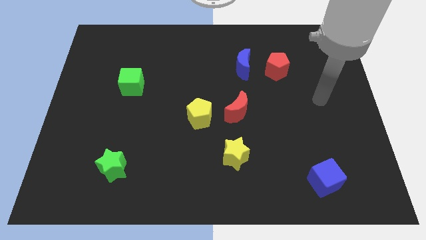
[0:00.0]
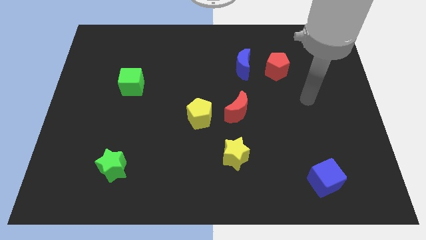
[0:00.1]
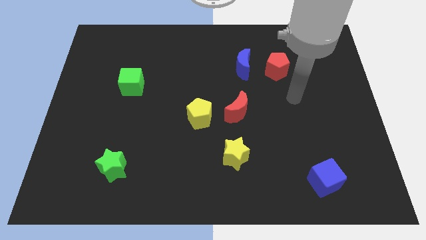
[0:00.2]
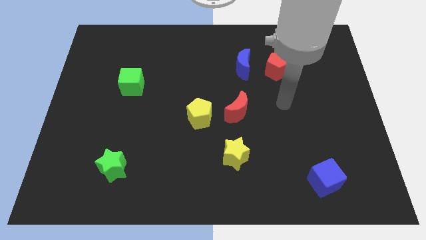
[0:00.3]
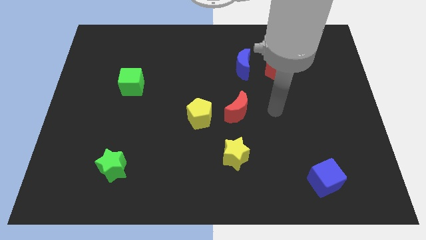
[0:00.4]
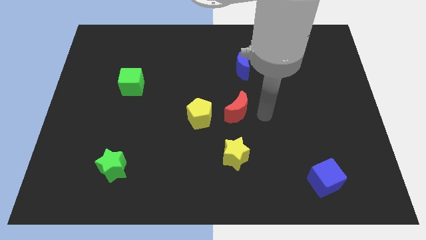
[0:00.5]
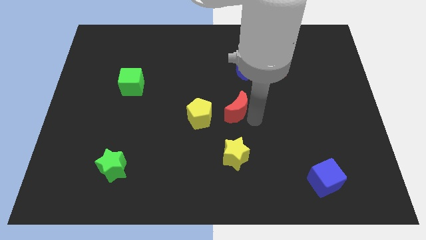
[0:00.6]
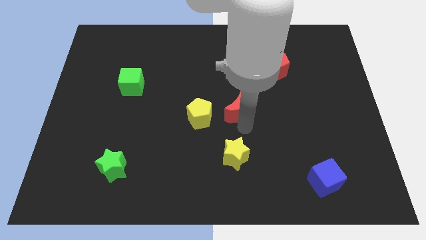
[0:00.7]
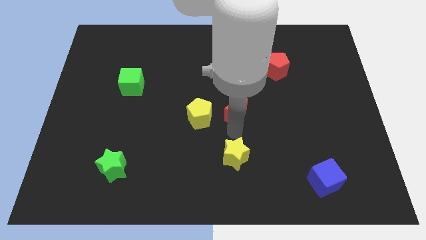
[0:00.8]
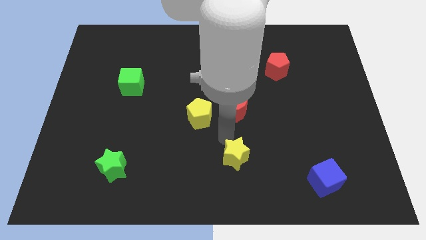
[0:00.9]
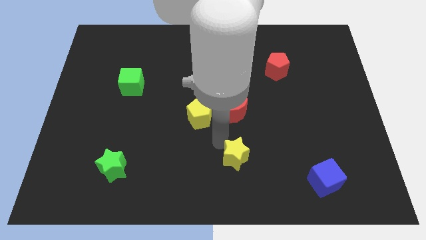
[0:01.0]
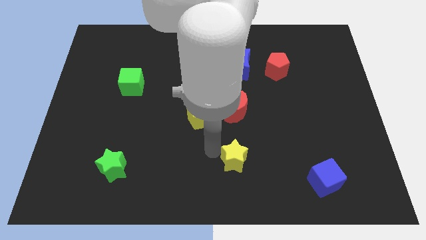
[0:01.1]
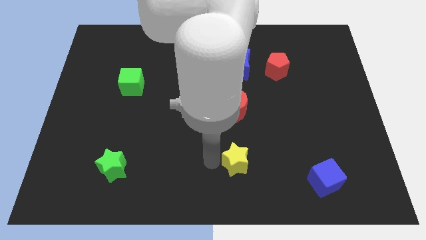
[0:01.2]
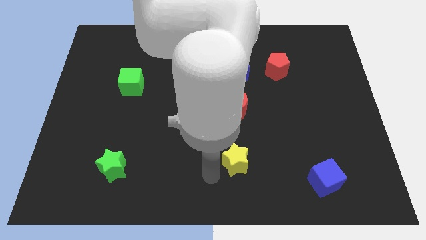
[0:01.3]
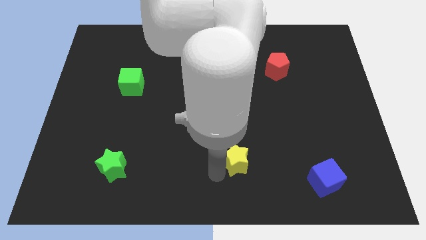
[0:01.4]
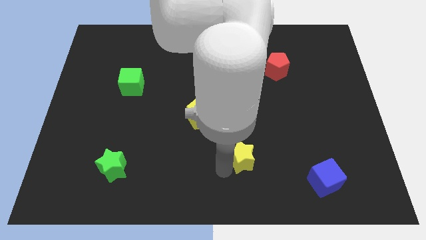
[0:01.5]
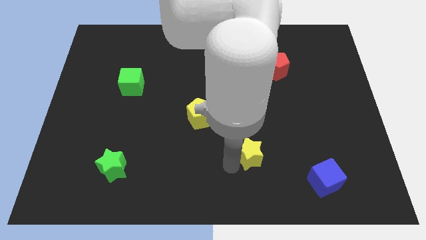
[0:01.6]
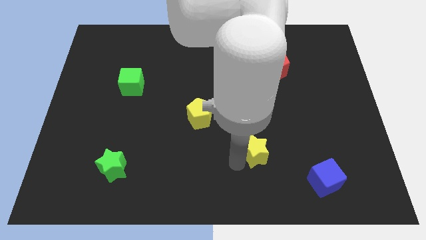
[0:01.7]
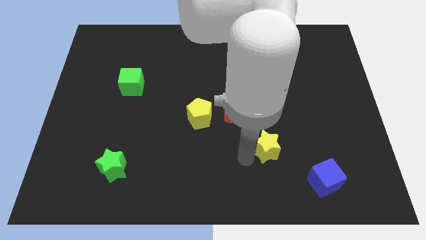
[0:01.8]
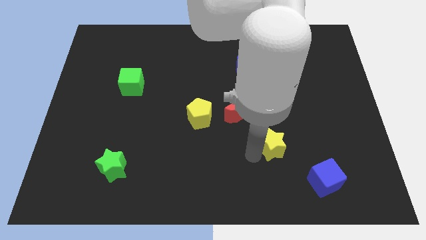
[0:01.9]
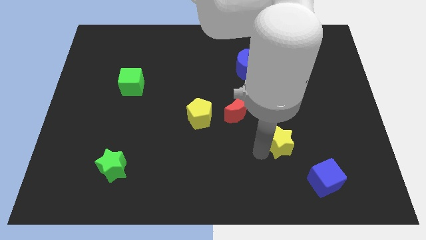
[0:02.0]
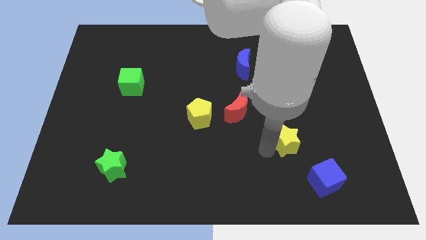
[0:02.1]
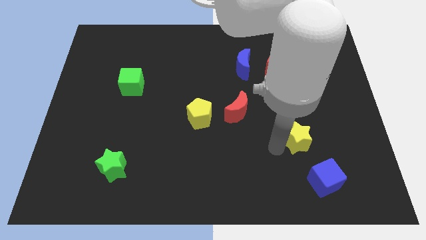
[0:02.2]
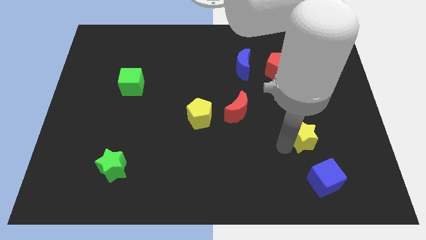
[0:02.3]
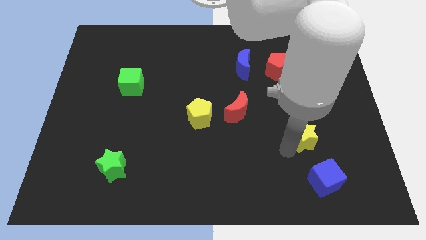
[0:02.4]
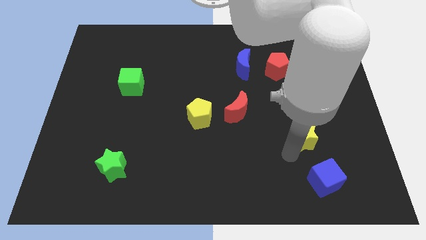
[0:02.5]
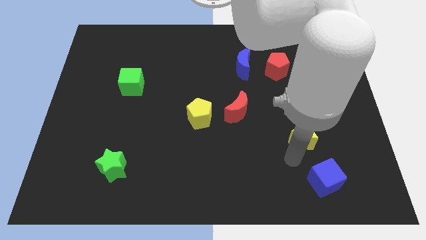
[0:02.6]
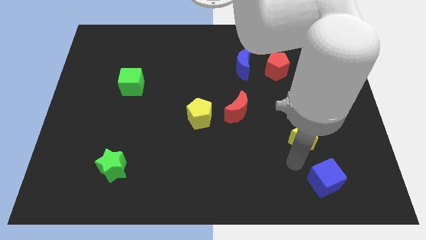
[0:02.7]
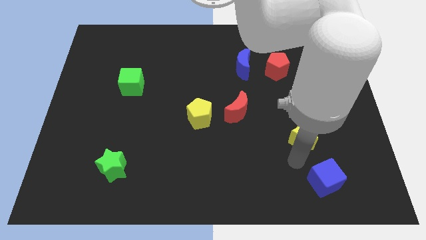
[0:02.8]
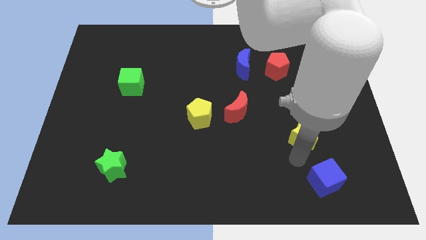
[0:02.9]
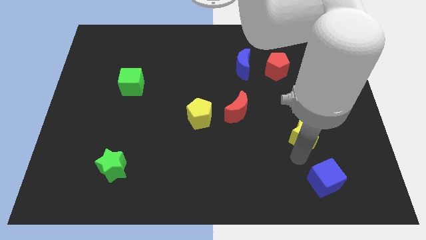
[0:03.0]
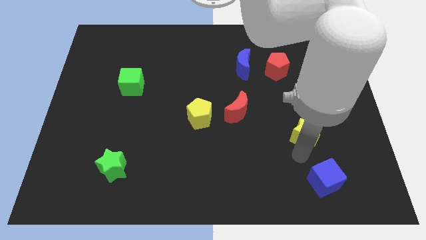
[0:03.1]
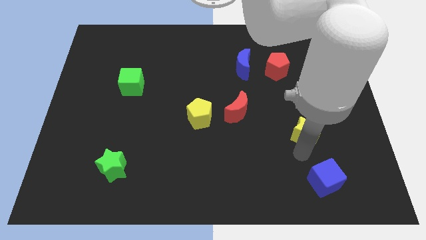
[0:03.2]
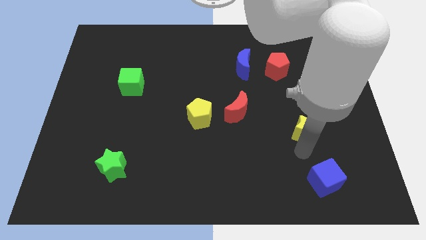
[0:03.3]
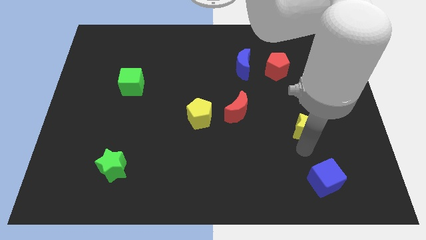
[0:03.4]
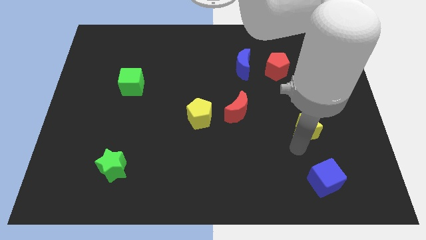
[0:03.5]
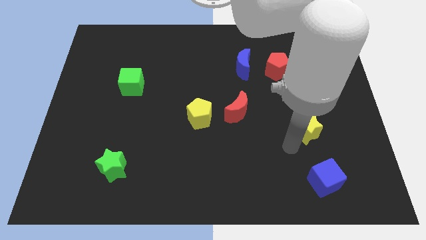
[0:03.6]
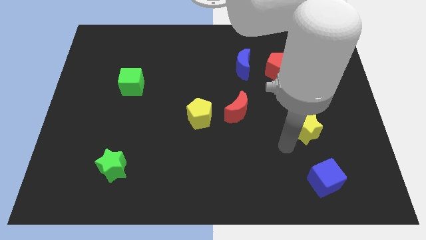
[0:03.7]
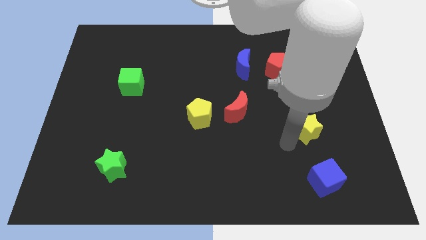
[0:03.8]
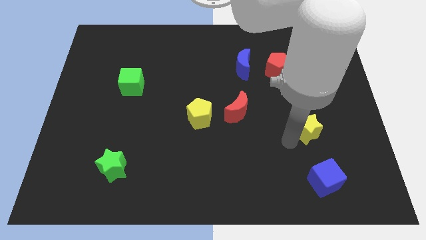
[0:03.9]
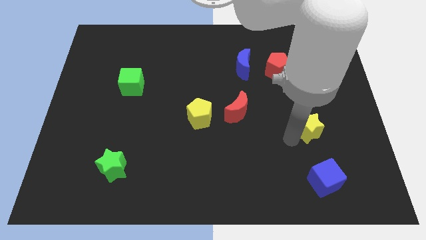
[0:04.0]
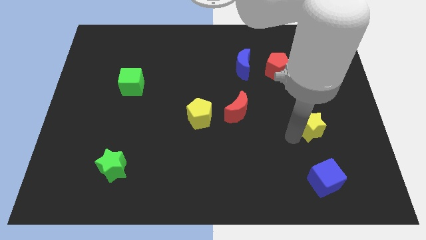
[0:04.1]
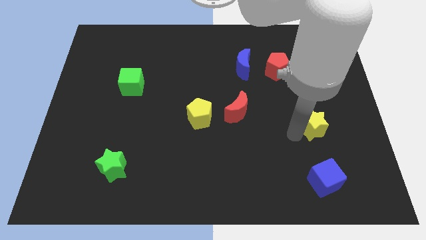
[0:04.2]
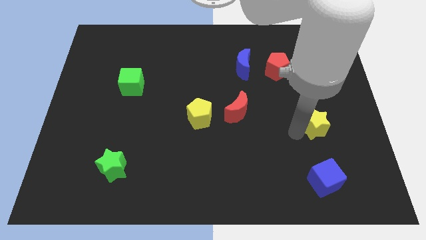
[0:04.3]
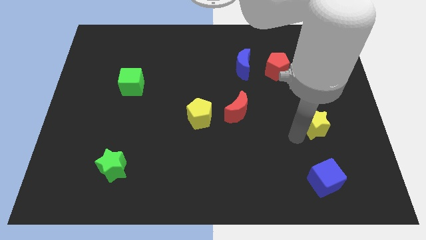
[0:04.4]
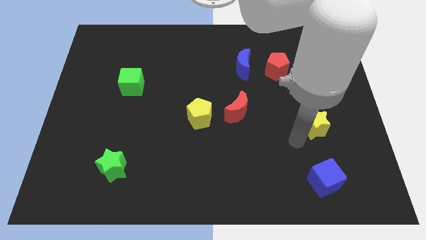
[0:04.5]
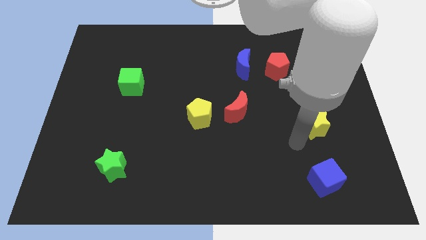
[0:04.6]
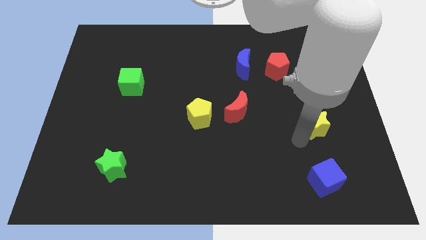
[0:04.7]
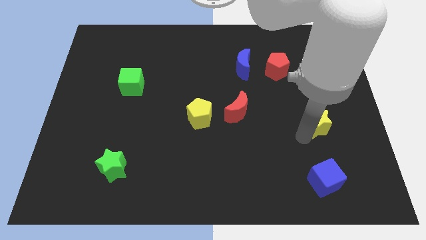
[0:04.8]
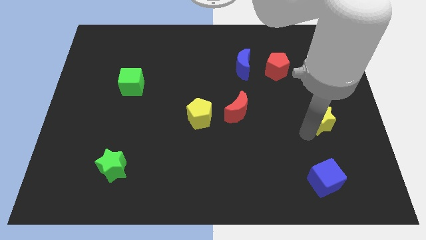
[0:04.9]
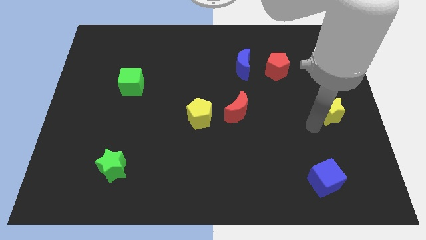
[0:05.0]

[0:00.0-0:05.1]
push the yellow star to the center right

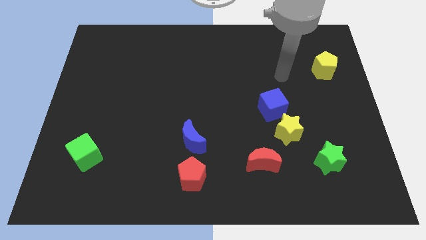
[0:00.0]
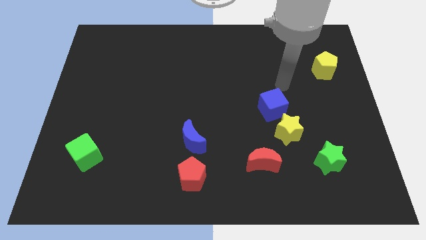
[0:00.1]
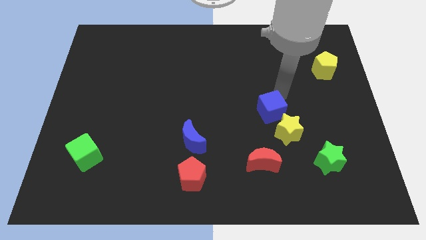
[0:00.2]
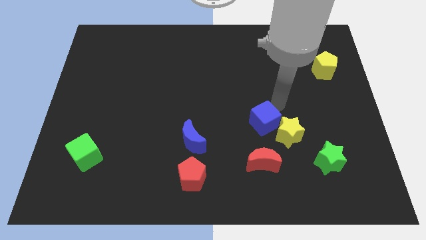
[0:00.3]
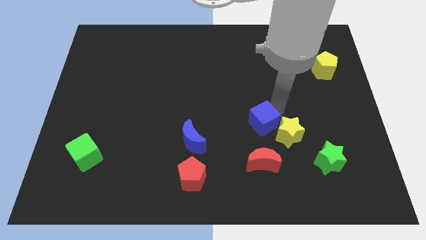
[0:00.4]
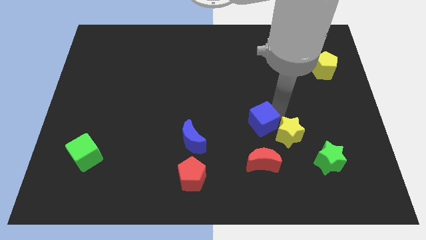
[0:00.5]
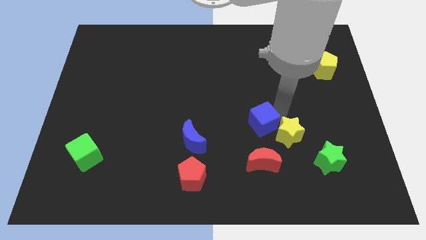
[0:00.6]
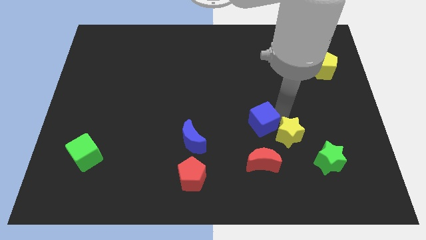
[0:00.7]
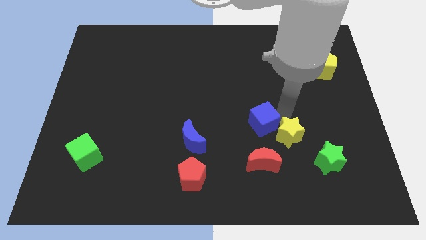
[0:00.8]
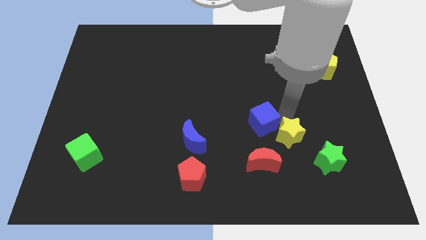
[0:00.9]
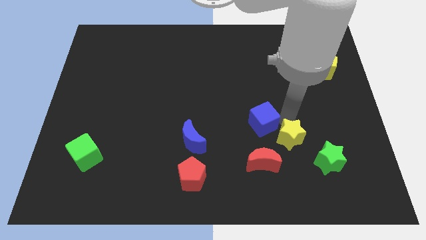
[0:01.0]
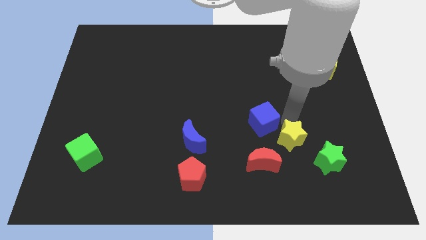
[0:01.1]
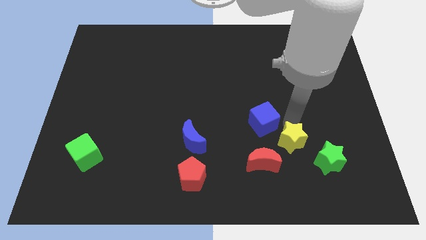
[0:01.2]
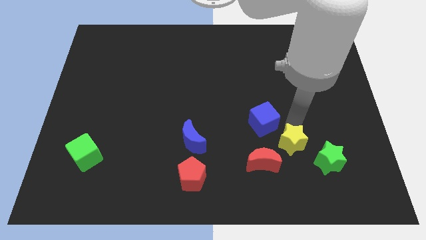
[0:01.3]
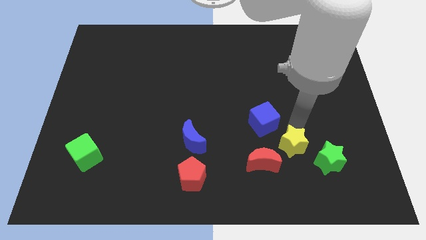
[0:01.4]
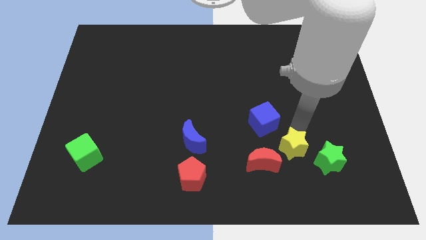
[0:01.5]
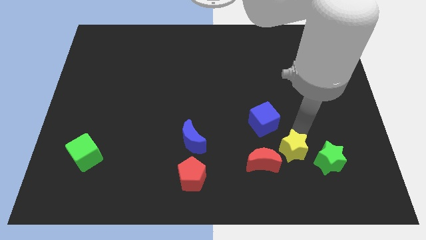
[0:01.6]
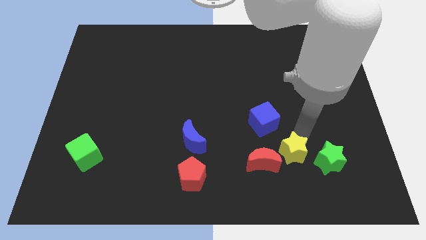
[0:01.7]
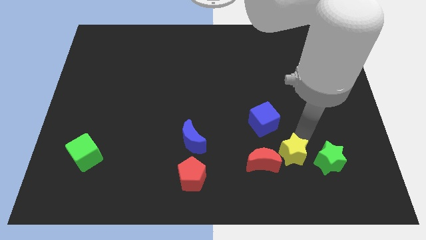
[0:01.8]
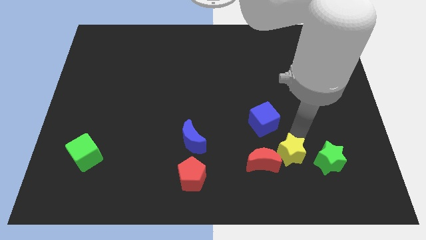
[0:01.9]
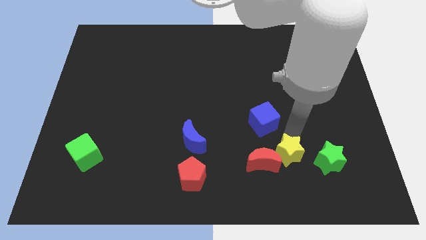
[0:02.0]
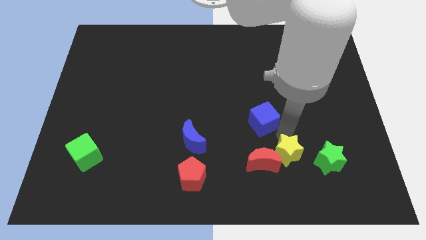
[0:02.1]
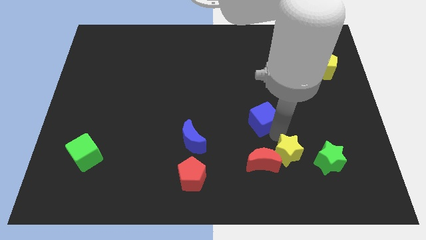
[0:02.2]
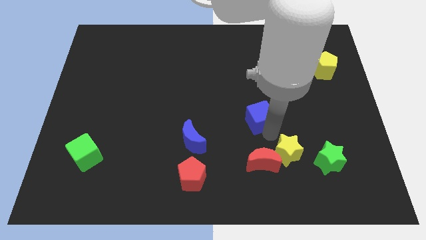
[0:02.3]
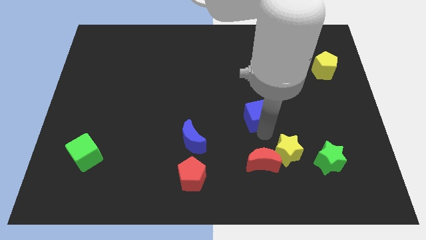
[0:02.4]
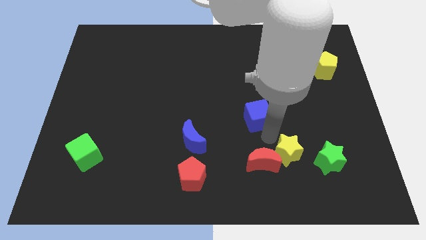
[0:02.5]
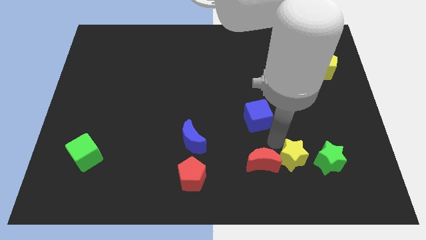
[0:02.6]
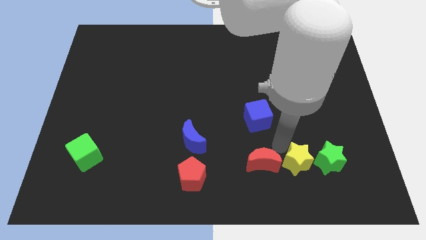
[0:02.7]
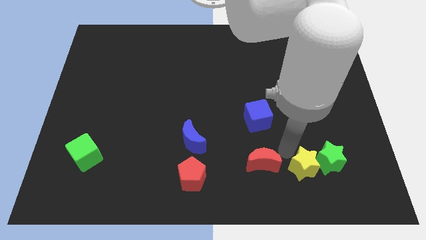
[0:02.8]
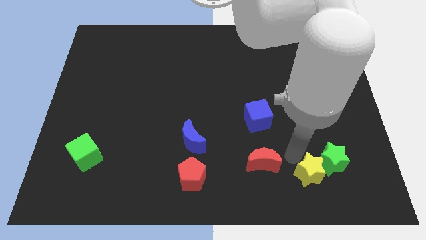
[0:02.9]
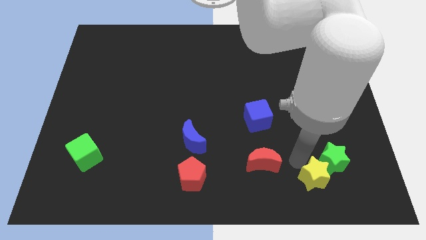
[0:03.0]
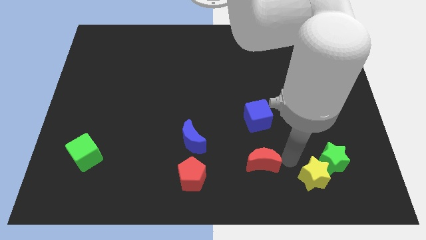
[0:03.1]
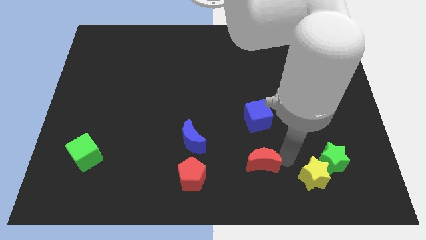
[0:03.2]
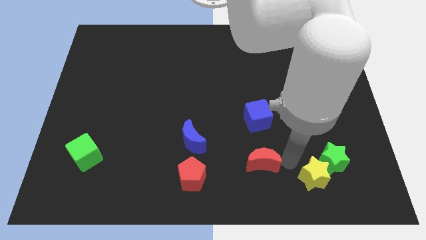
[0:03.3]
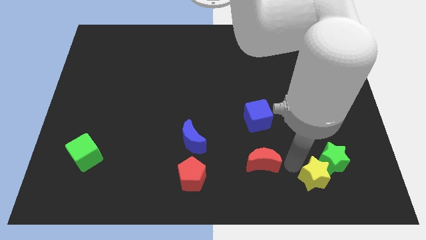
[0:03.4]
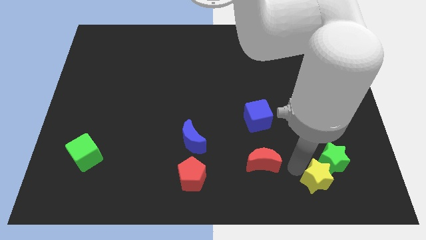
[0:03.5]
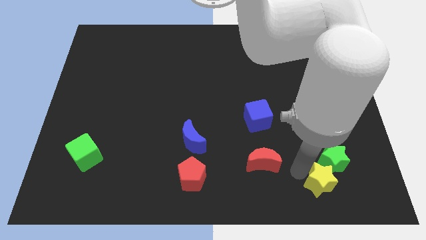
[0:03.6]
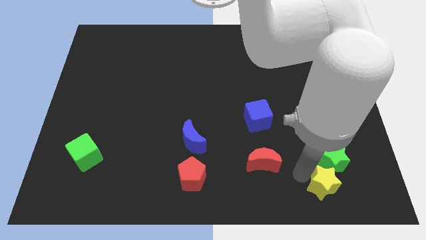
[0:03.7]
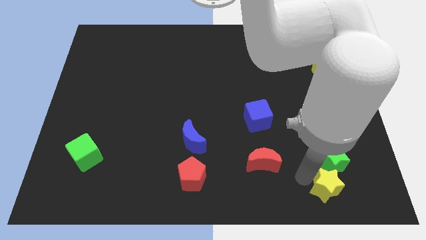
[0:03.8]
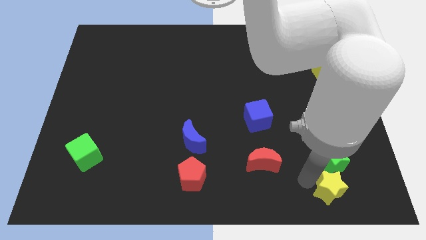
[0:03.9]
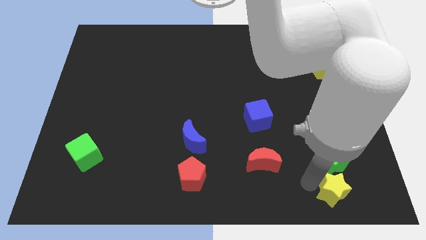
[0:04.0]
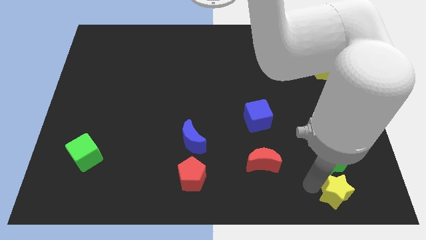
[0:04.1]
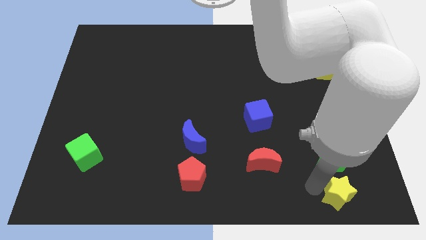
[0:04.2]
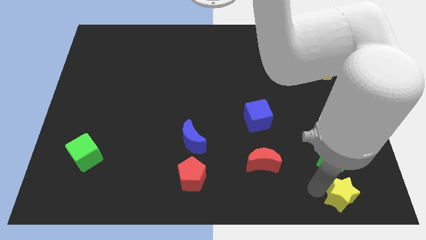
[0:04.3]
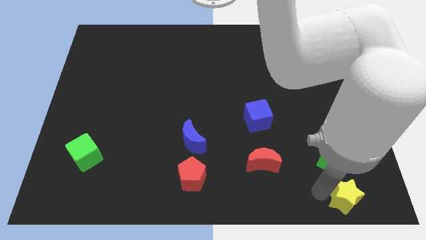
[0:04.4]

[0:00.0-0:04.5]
put the yellow star to the lower right corner
